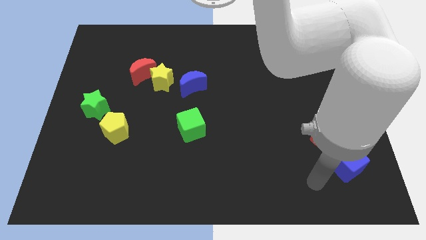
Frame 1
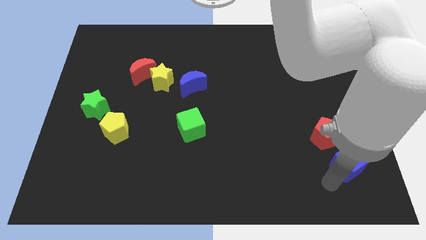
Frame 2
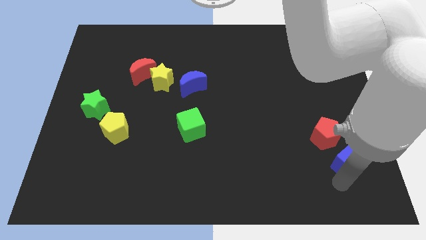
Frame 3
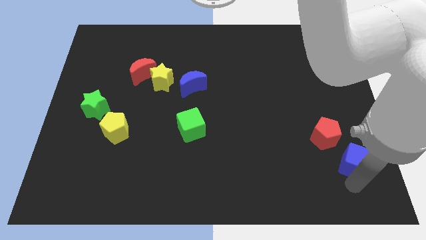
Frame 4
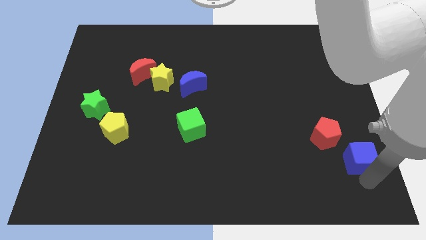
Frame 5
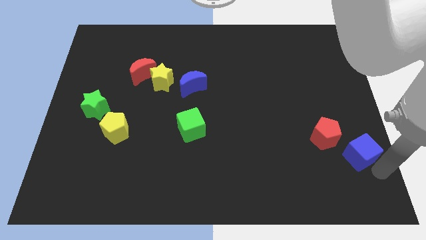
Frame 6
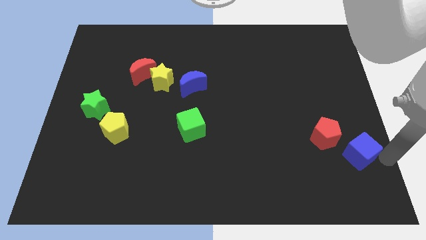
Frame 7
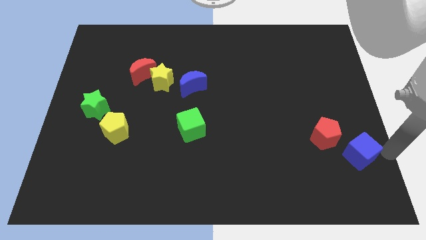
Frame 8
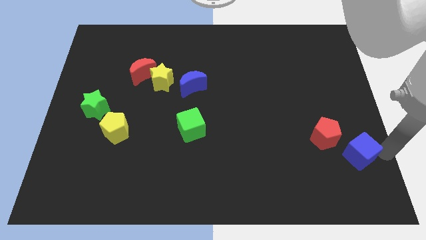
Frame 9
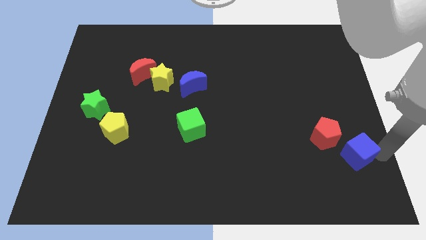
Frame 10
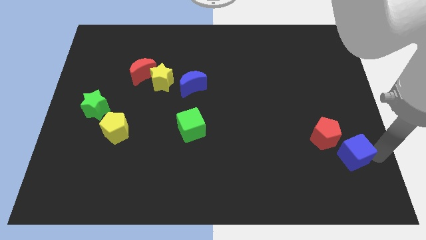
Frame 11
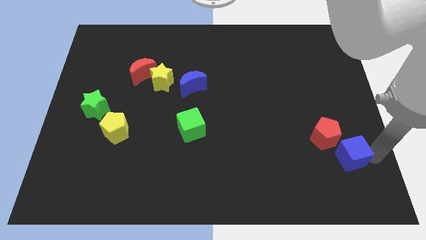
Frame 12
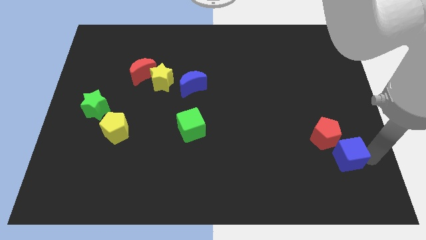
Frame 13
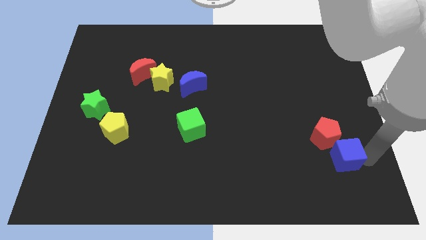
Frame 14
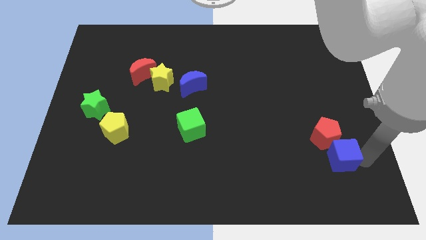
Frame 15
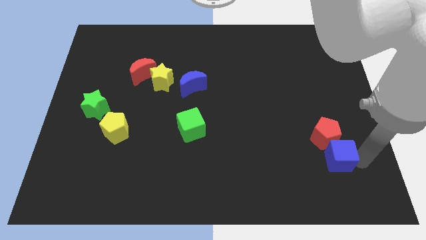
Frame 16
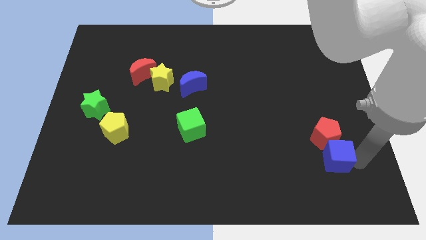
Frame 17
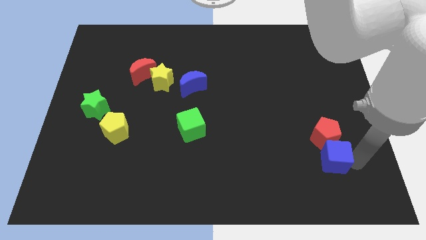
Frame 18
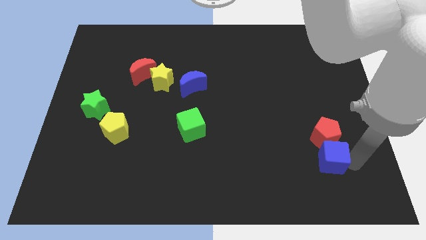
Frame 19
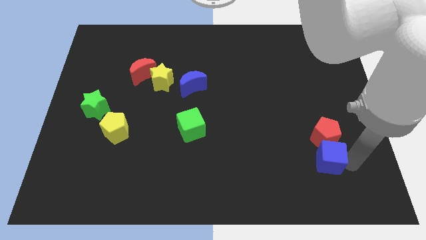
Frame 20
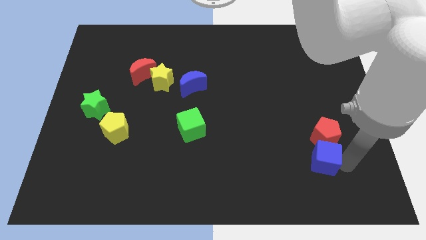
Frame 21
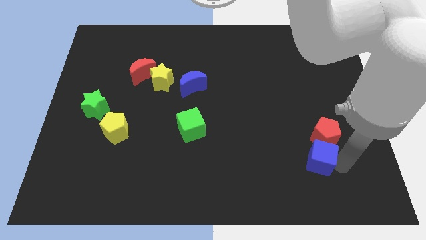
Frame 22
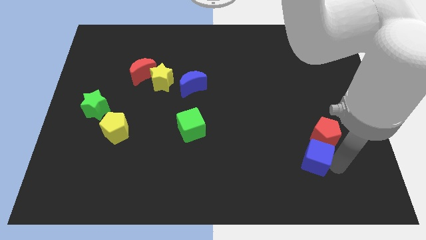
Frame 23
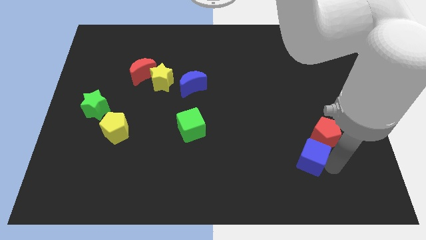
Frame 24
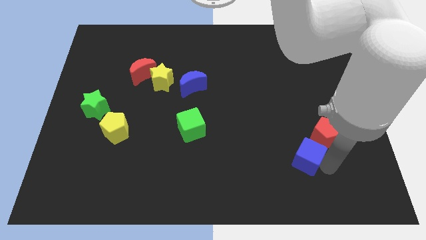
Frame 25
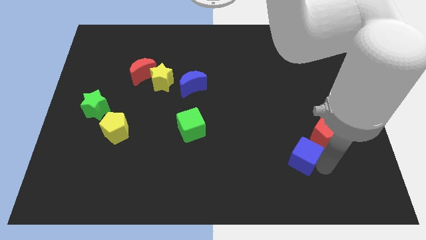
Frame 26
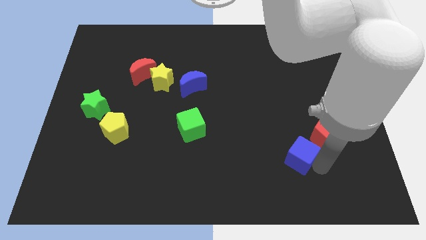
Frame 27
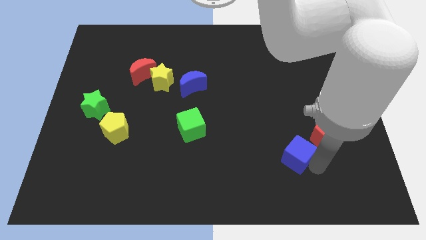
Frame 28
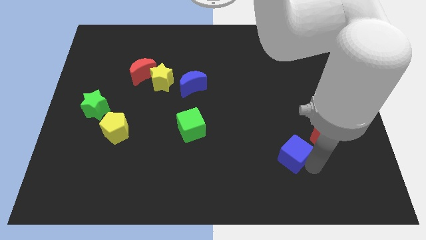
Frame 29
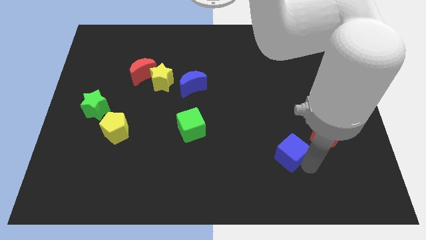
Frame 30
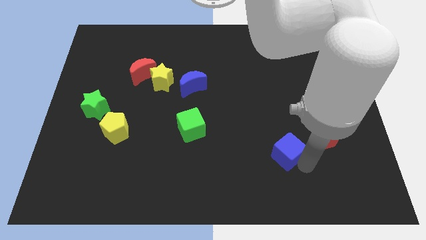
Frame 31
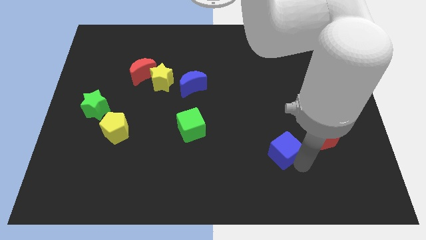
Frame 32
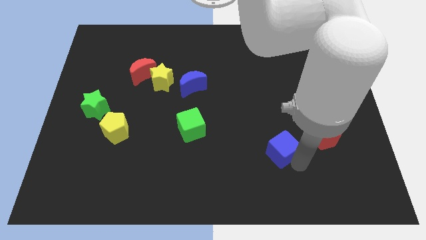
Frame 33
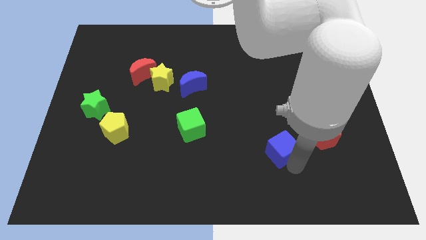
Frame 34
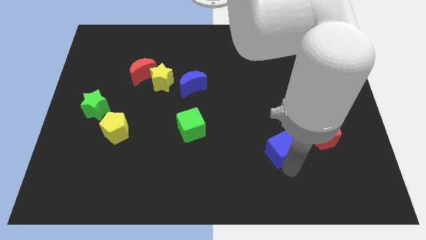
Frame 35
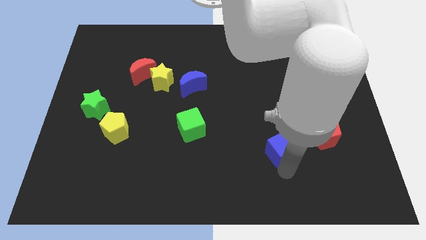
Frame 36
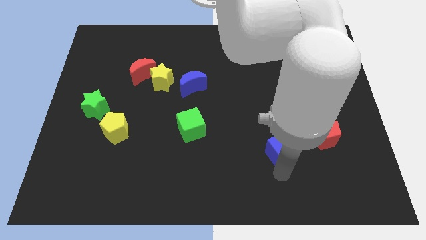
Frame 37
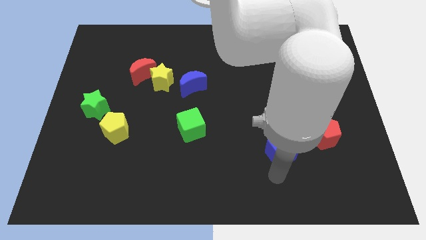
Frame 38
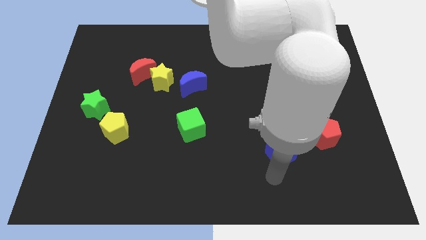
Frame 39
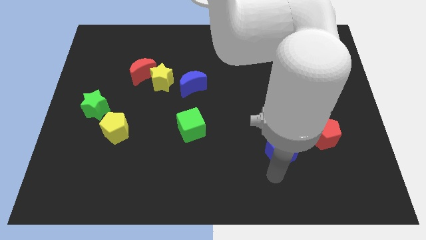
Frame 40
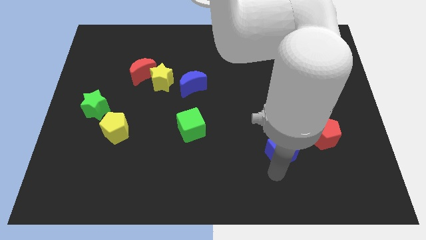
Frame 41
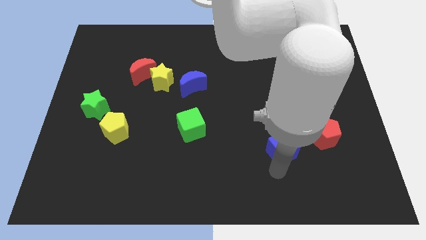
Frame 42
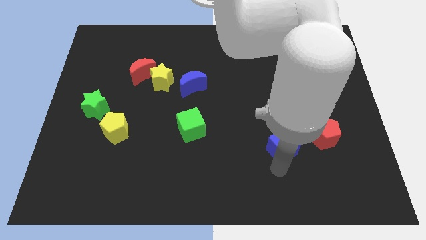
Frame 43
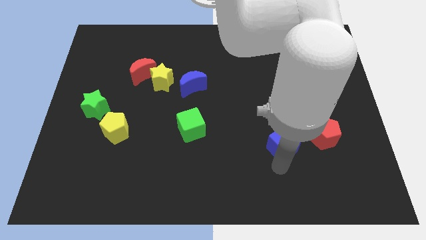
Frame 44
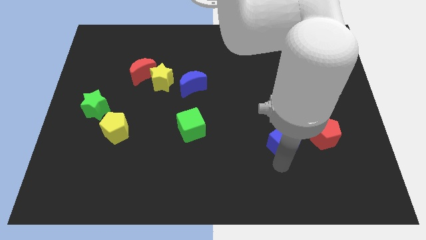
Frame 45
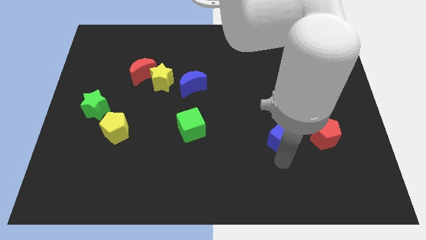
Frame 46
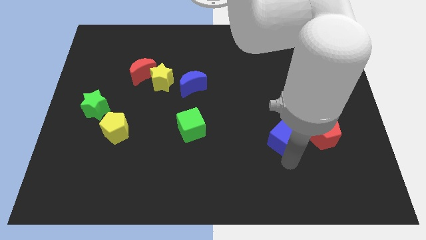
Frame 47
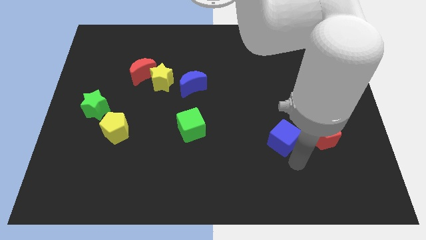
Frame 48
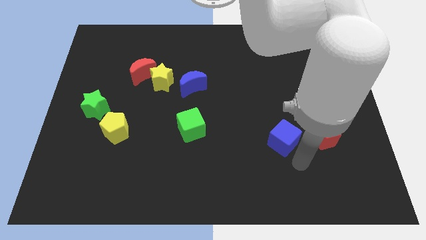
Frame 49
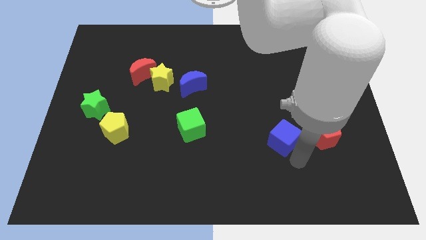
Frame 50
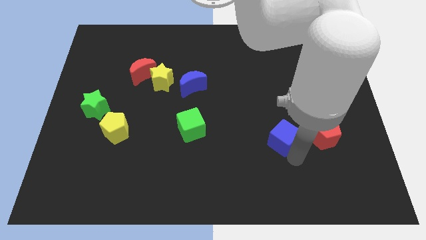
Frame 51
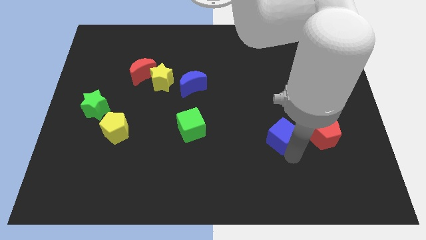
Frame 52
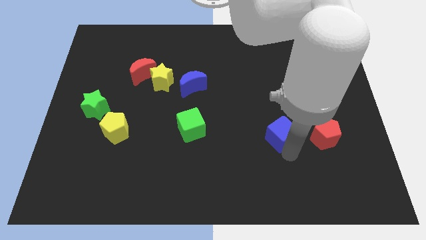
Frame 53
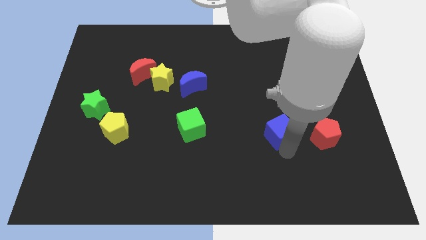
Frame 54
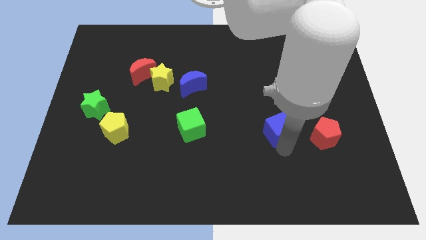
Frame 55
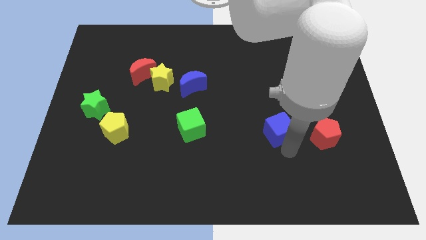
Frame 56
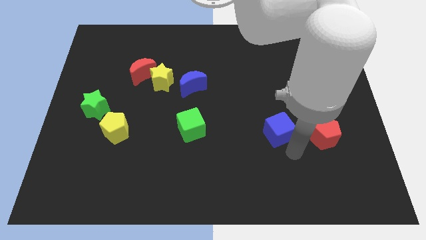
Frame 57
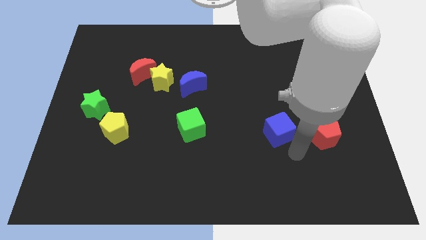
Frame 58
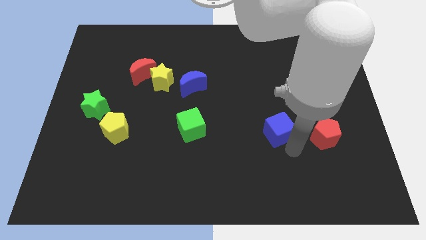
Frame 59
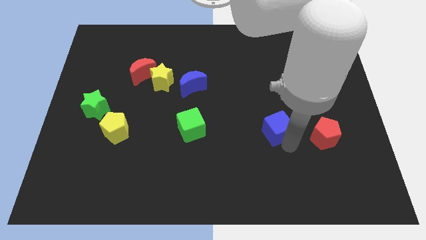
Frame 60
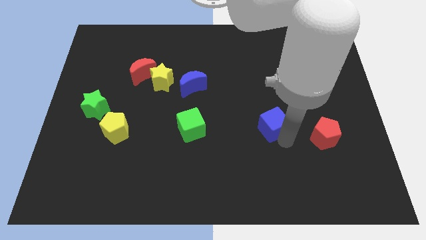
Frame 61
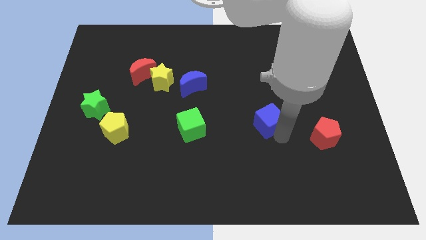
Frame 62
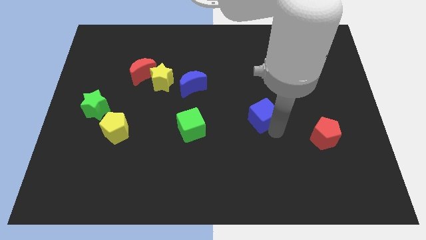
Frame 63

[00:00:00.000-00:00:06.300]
push the blue cube up and then left

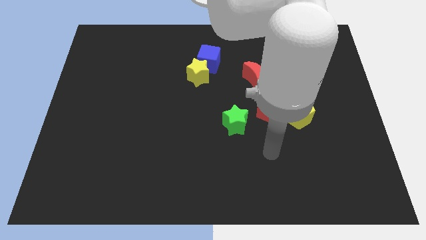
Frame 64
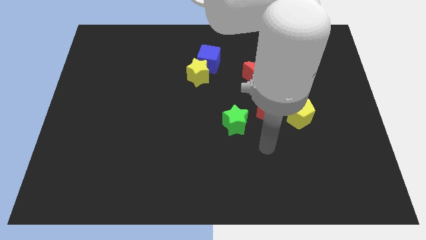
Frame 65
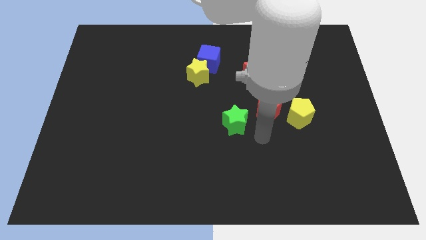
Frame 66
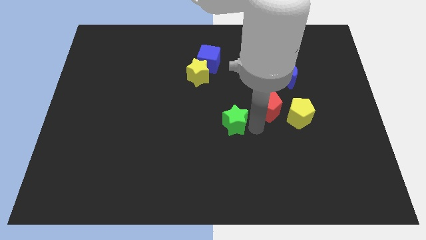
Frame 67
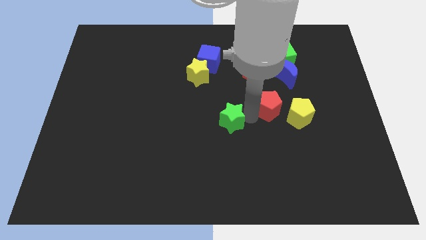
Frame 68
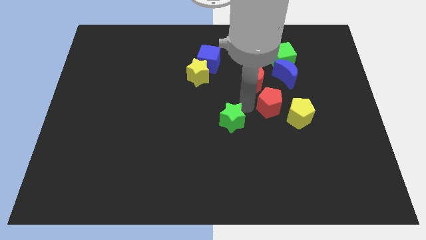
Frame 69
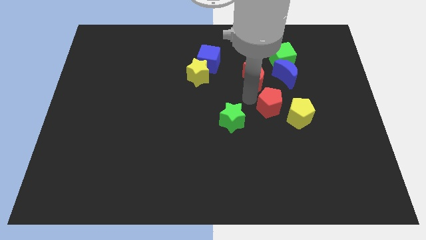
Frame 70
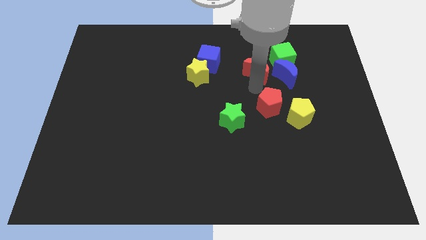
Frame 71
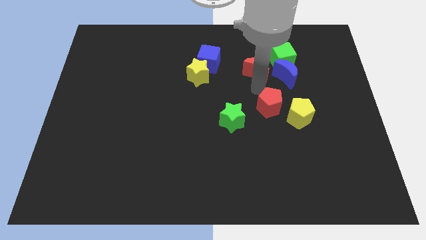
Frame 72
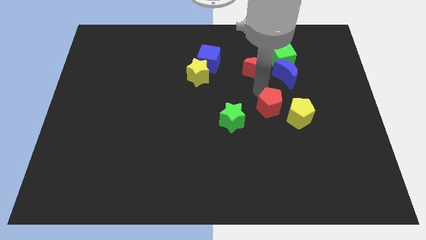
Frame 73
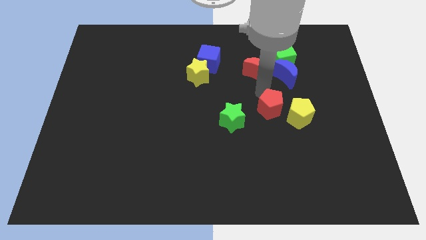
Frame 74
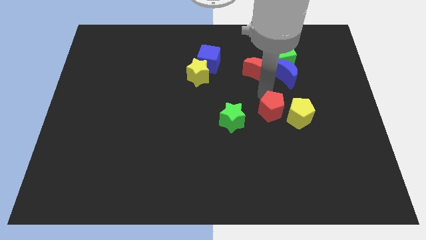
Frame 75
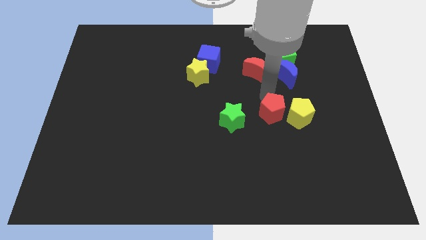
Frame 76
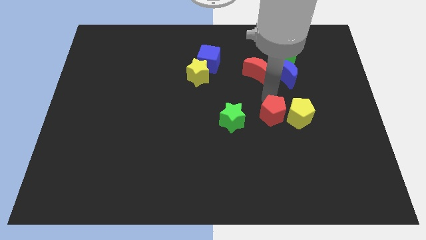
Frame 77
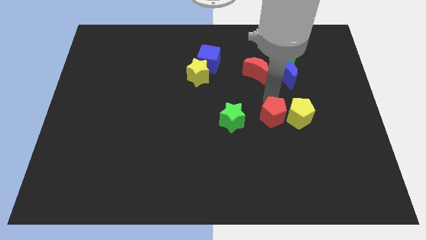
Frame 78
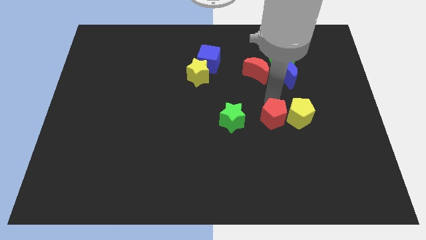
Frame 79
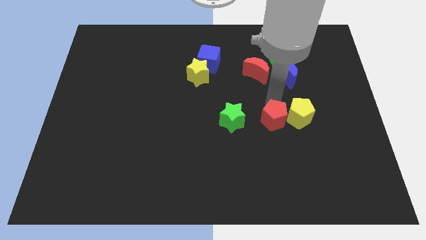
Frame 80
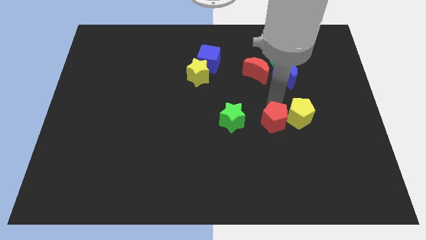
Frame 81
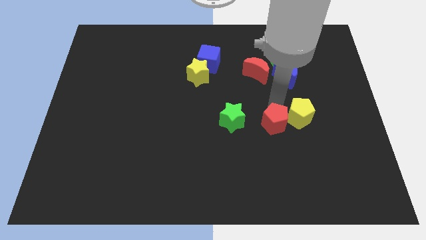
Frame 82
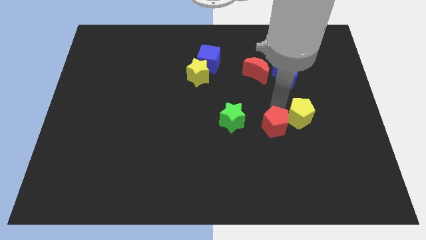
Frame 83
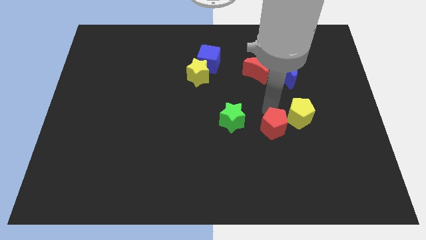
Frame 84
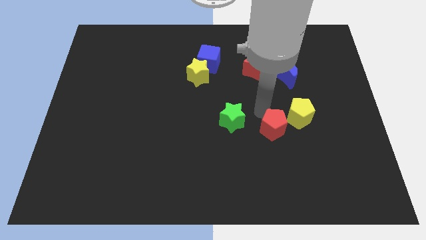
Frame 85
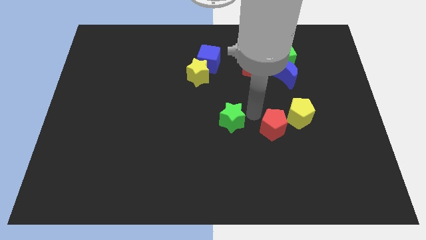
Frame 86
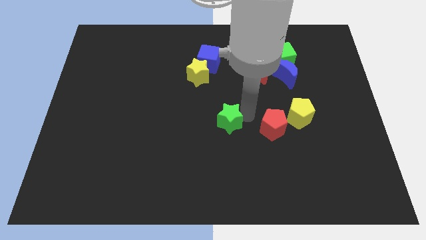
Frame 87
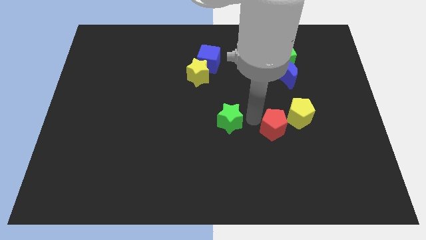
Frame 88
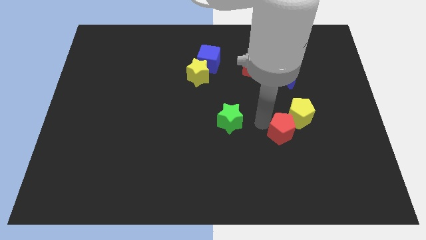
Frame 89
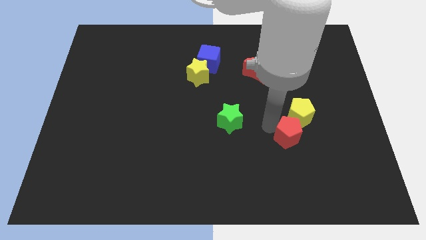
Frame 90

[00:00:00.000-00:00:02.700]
slightly push the red pentagon down and right
